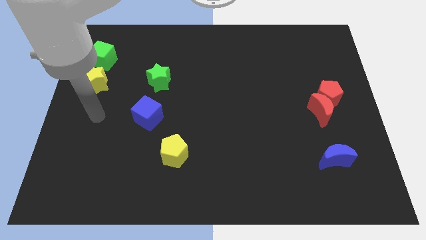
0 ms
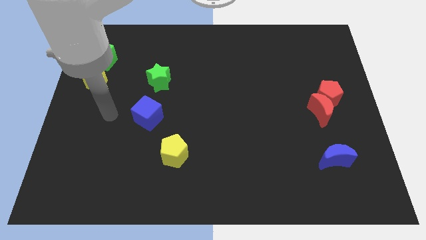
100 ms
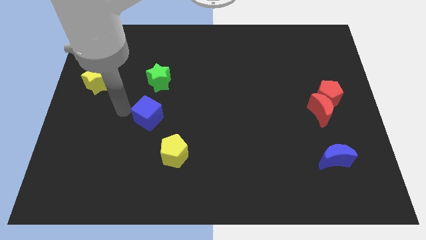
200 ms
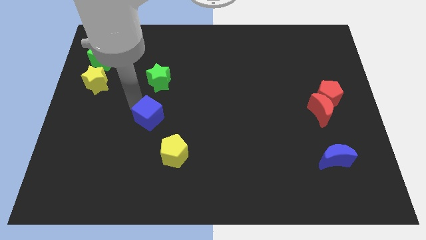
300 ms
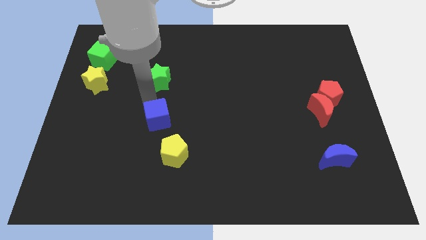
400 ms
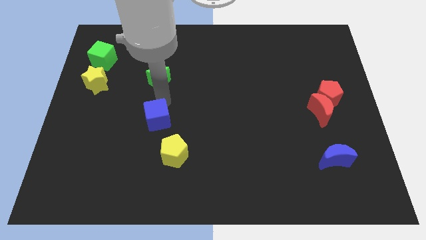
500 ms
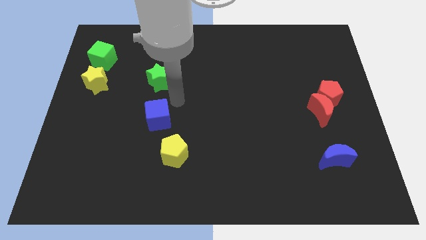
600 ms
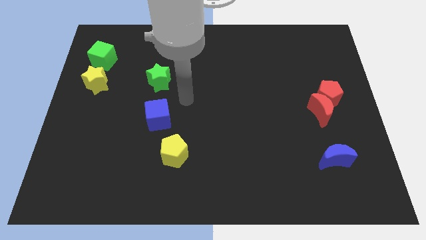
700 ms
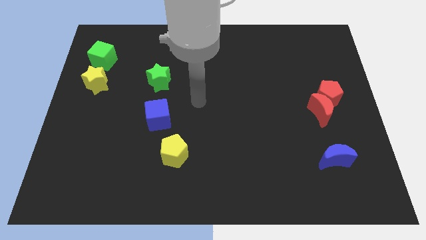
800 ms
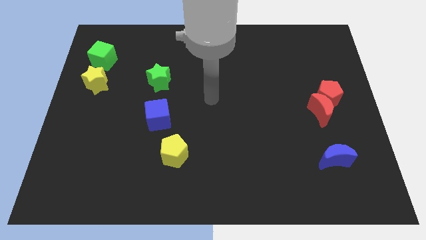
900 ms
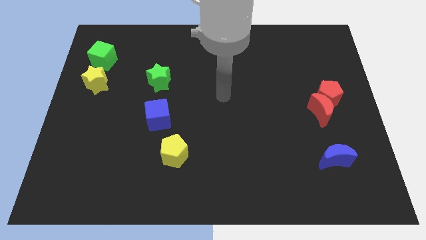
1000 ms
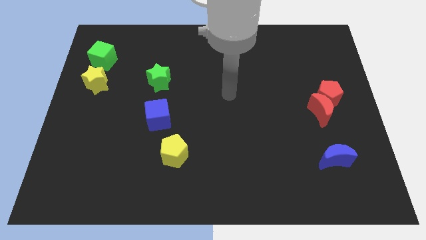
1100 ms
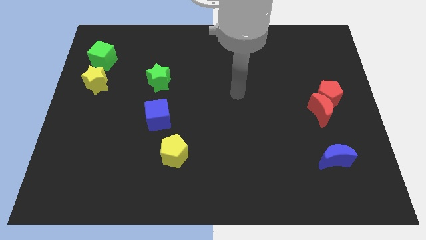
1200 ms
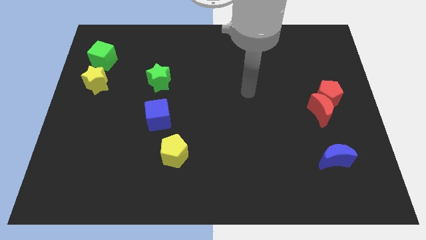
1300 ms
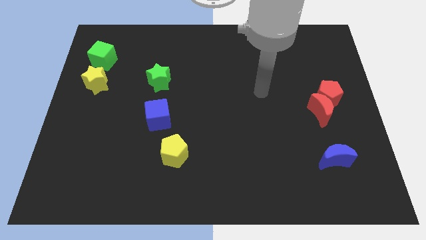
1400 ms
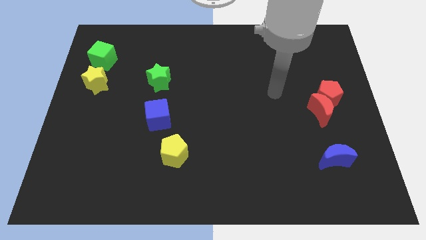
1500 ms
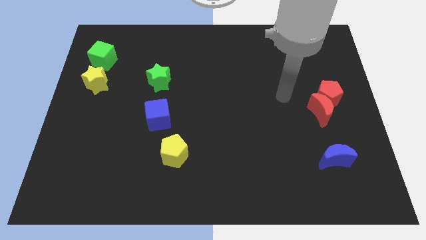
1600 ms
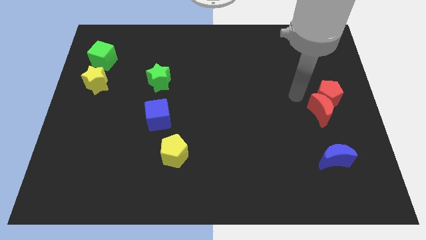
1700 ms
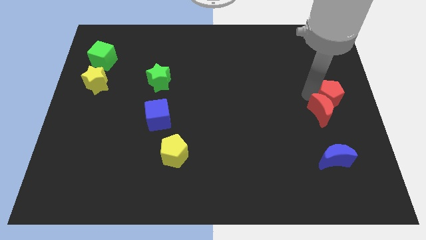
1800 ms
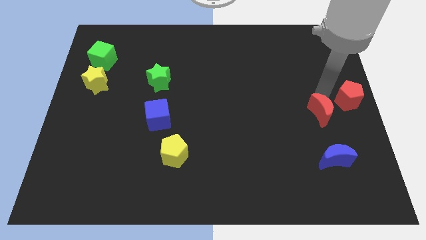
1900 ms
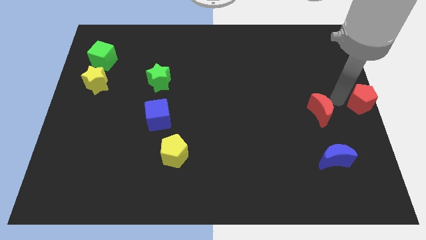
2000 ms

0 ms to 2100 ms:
move the red moon away from the red pentagon

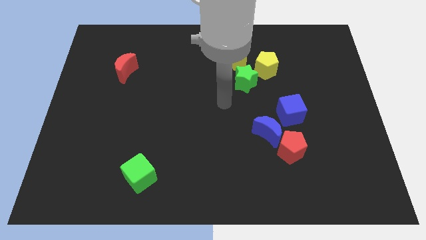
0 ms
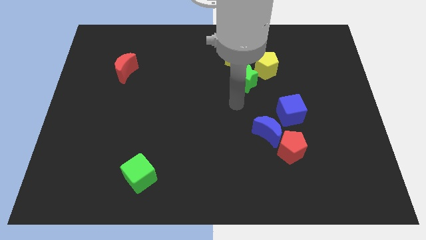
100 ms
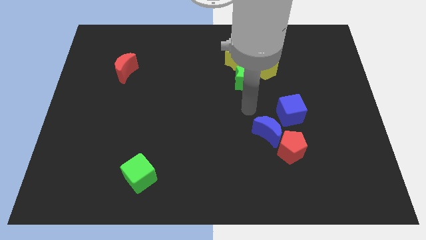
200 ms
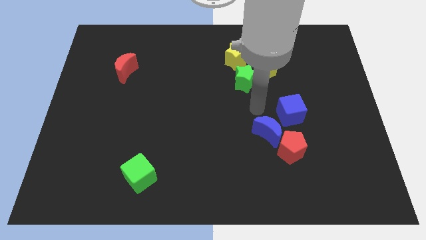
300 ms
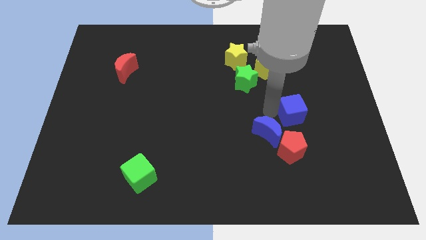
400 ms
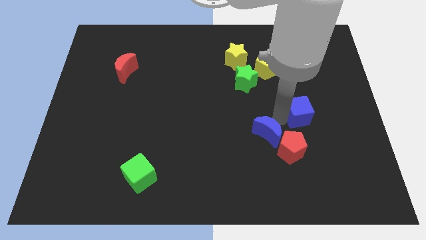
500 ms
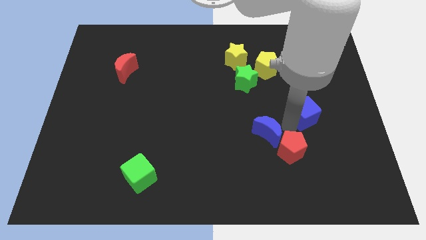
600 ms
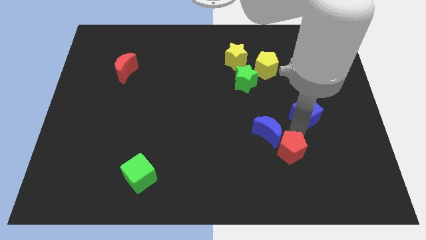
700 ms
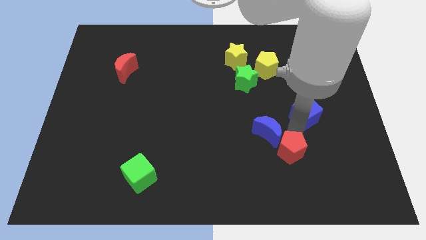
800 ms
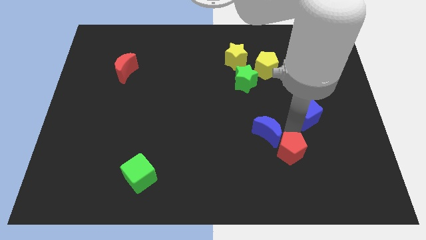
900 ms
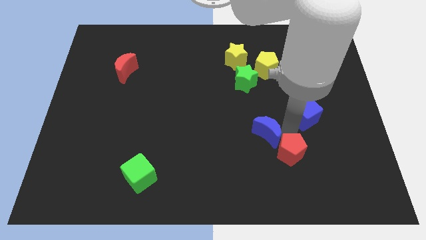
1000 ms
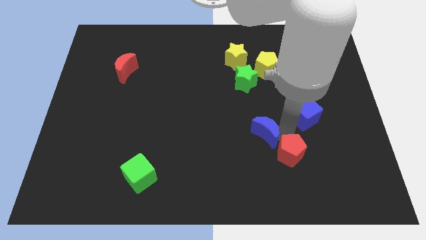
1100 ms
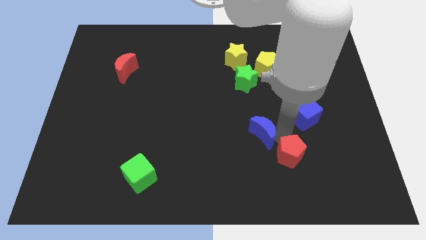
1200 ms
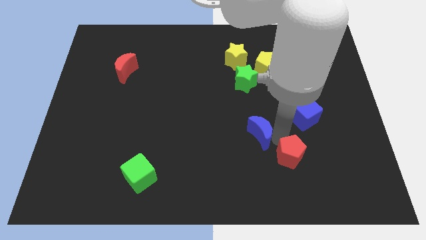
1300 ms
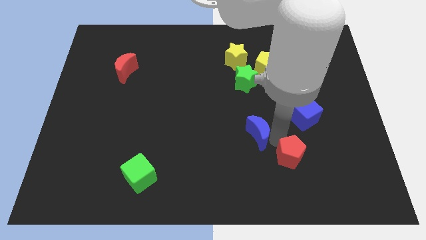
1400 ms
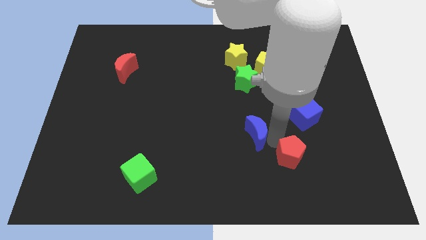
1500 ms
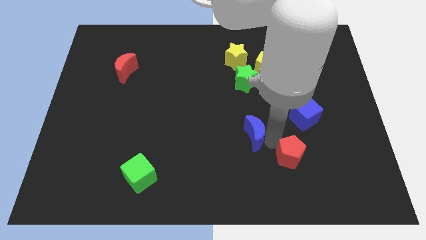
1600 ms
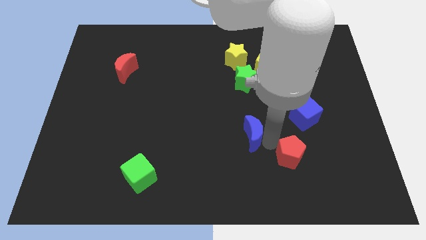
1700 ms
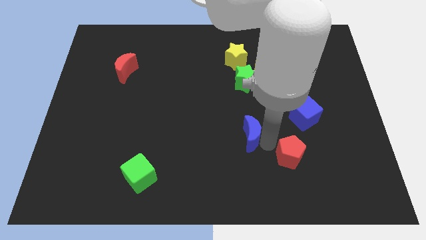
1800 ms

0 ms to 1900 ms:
pull the blue moon apart from the red pentagon and blue cube

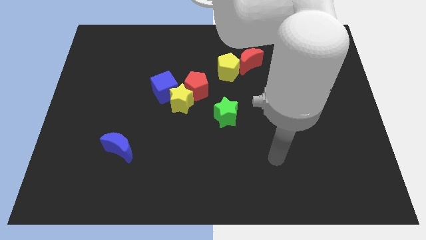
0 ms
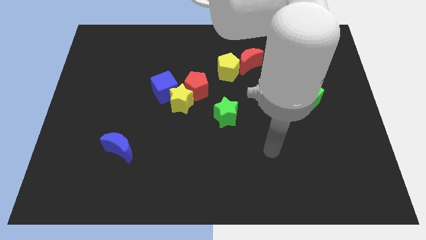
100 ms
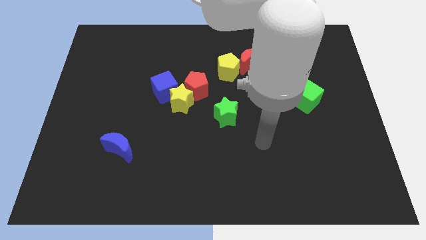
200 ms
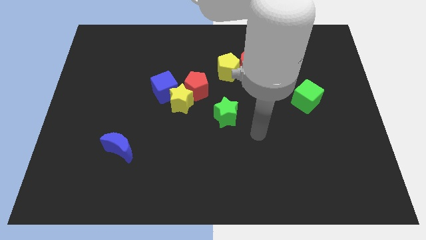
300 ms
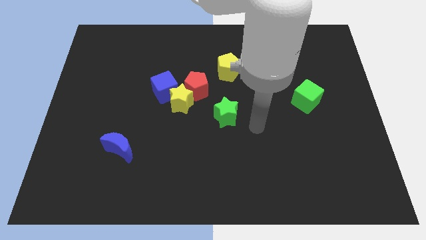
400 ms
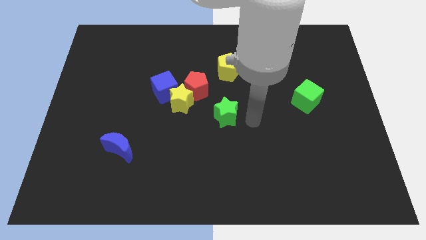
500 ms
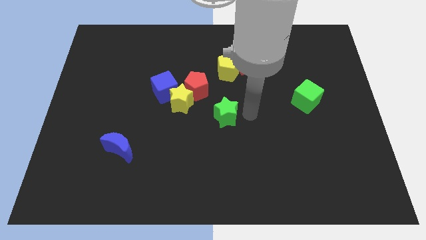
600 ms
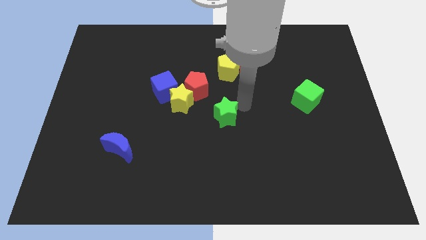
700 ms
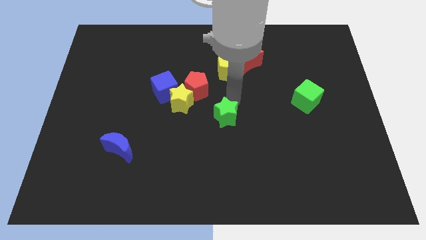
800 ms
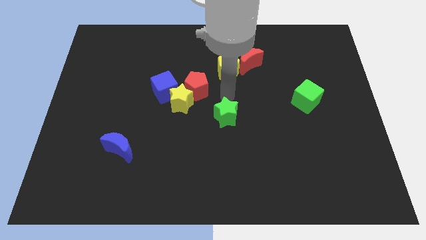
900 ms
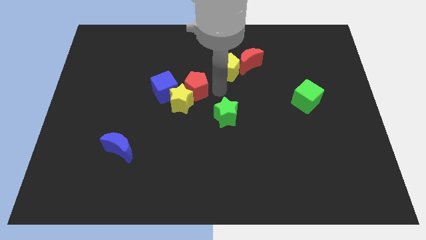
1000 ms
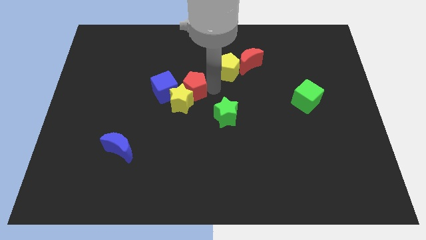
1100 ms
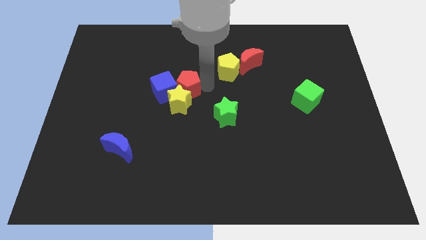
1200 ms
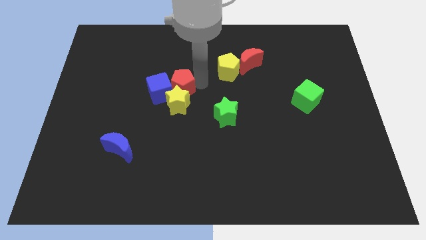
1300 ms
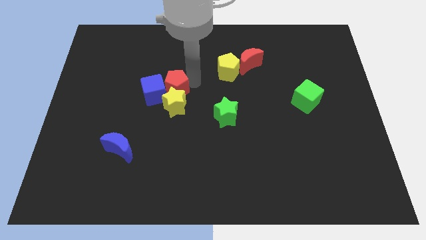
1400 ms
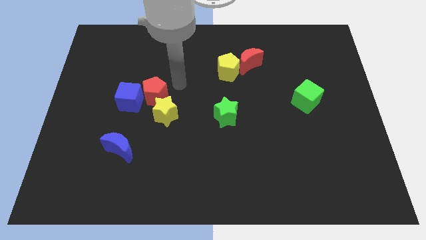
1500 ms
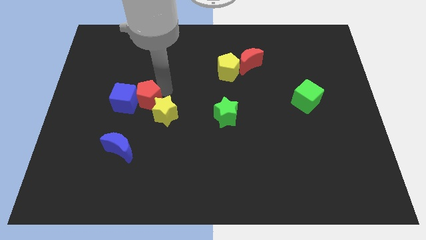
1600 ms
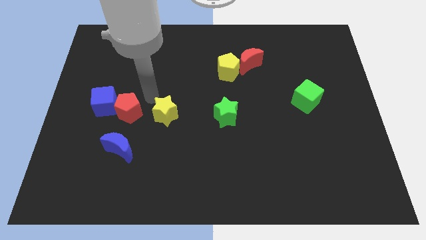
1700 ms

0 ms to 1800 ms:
separate the yellow star from the blue cube and red pentagon

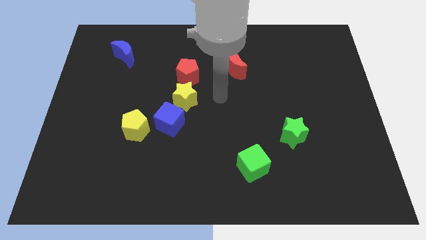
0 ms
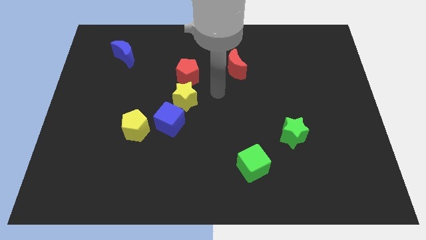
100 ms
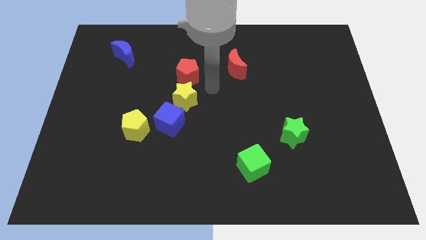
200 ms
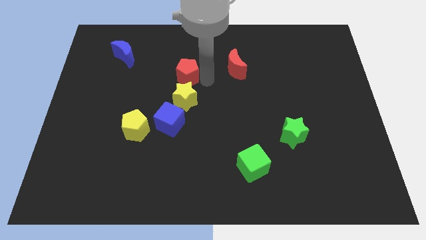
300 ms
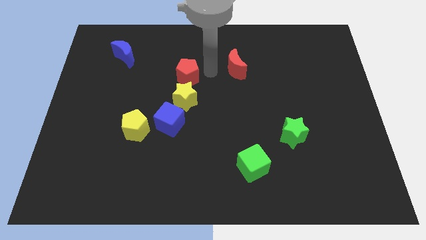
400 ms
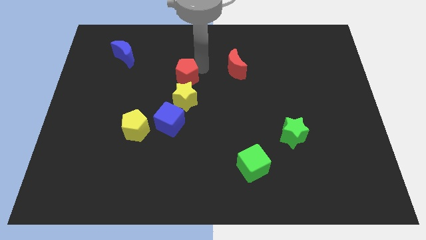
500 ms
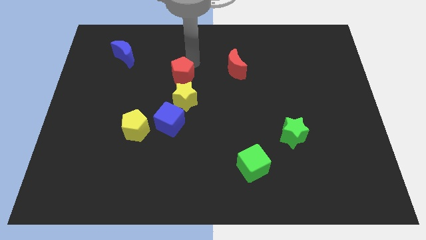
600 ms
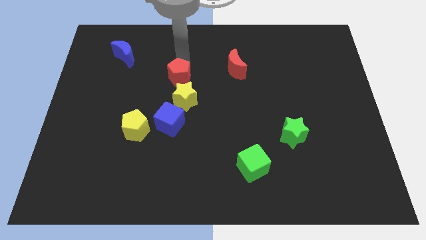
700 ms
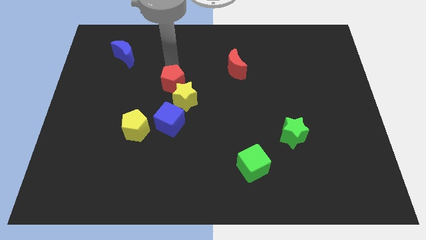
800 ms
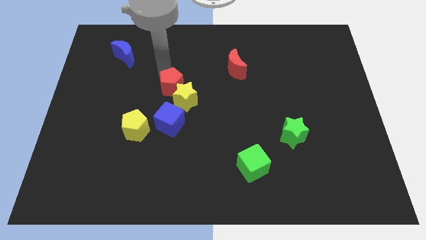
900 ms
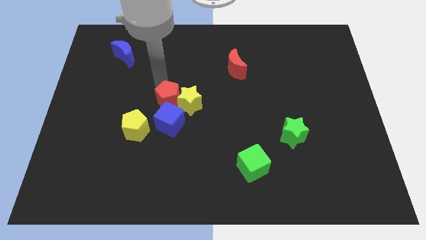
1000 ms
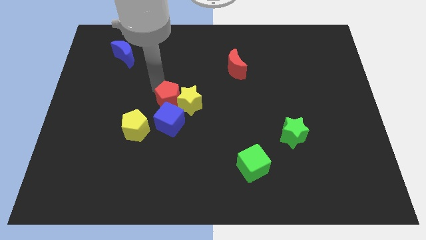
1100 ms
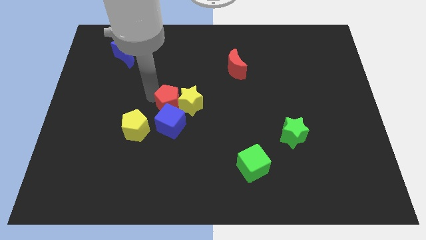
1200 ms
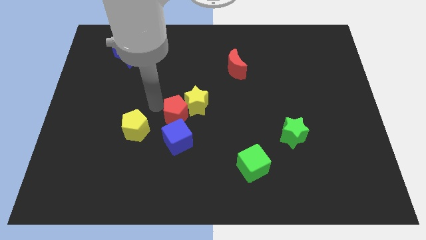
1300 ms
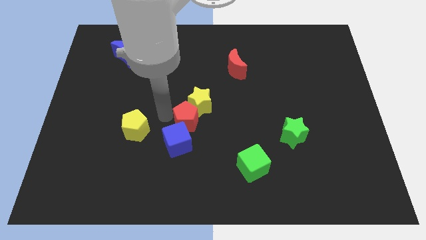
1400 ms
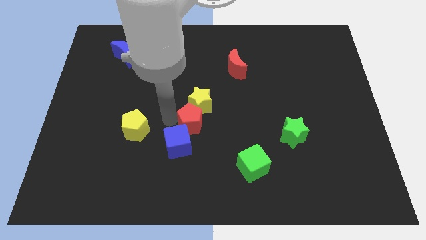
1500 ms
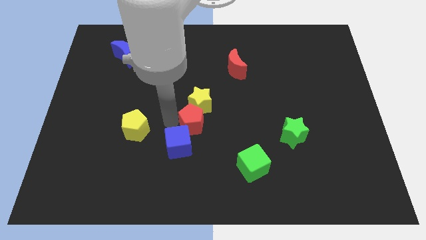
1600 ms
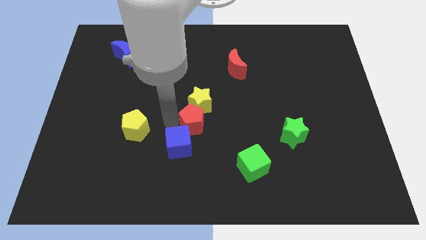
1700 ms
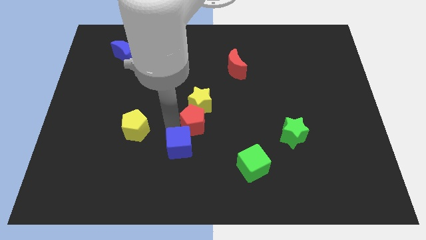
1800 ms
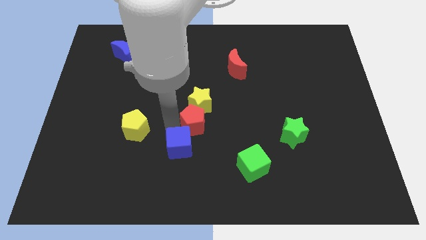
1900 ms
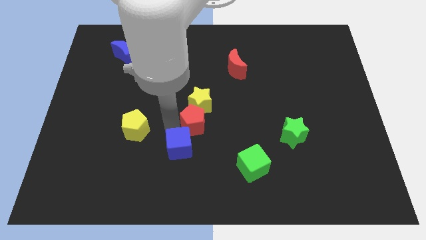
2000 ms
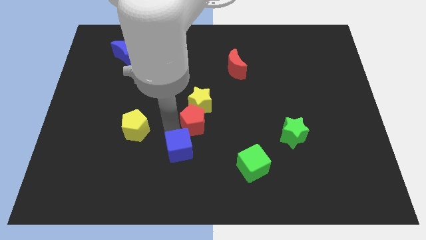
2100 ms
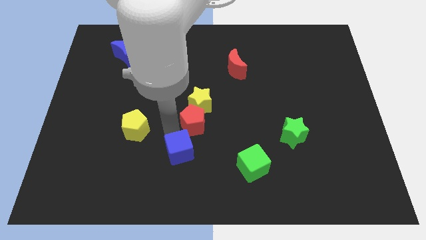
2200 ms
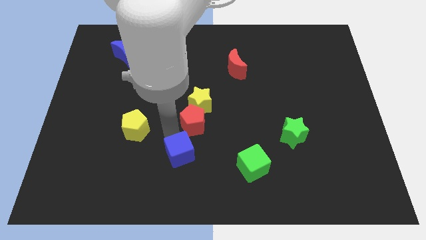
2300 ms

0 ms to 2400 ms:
pull the blue cube apart from the yellow star and yellow pentagon

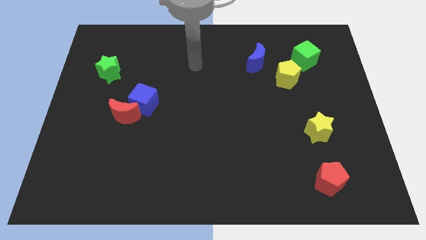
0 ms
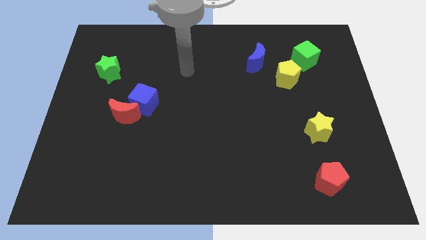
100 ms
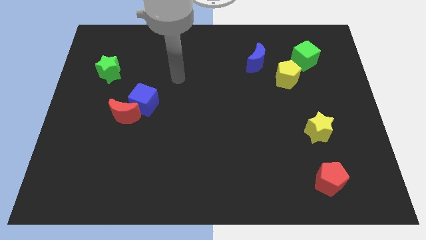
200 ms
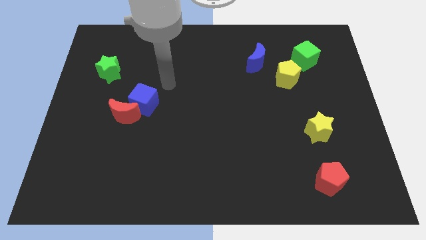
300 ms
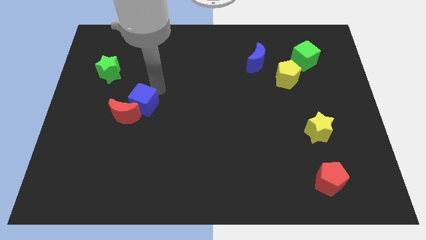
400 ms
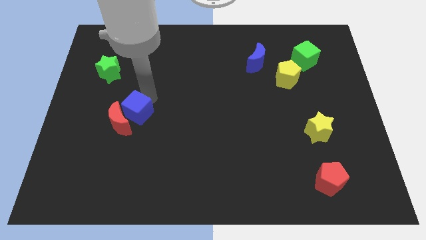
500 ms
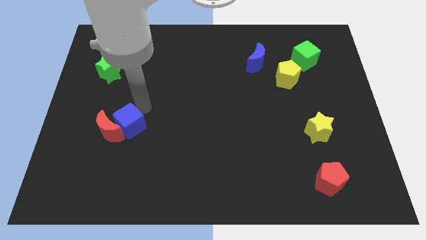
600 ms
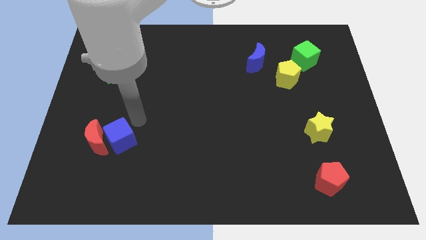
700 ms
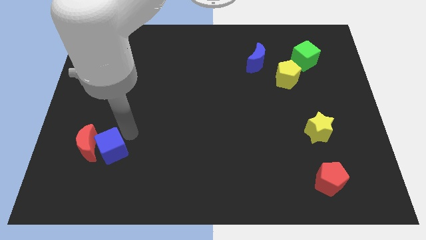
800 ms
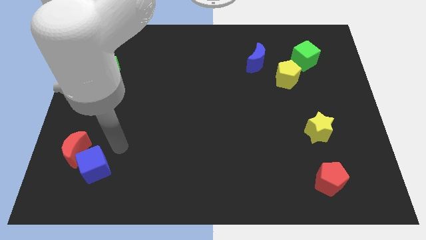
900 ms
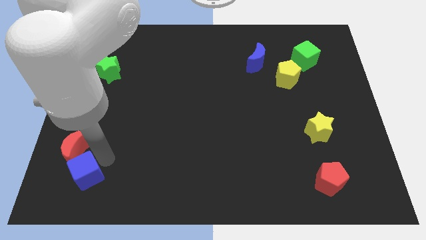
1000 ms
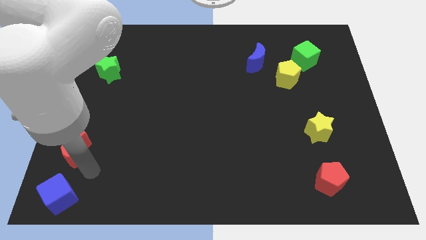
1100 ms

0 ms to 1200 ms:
separate the red moon from the blue cube
